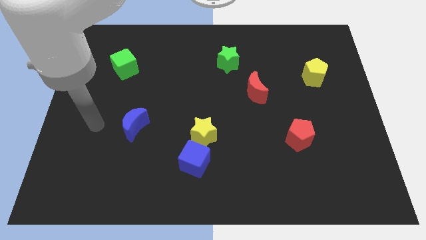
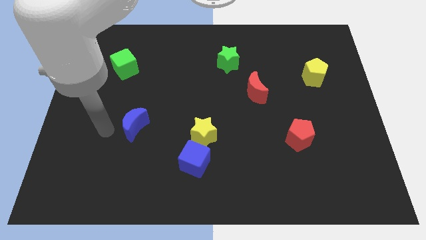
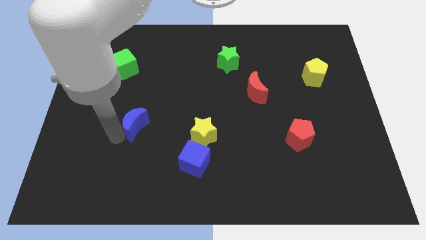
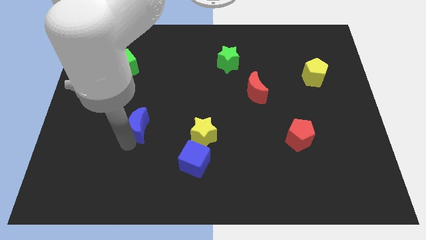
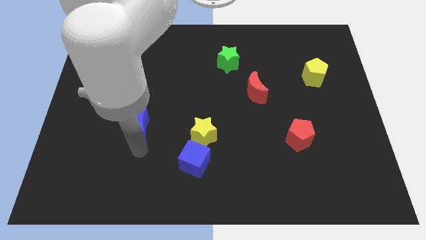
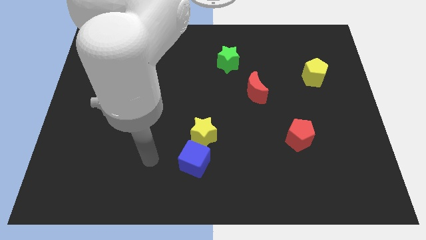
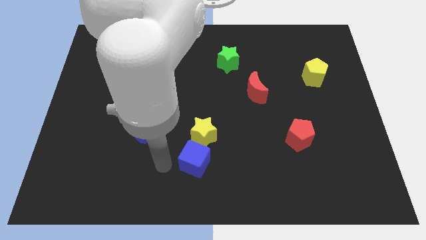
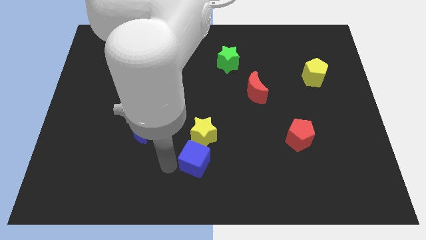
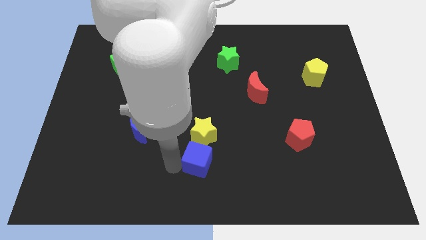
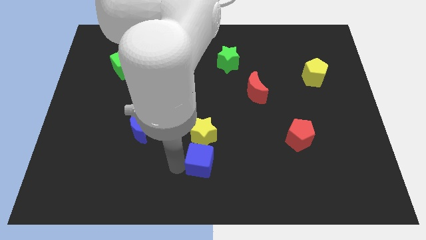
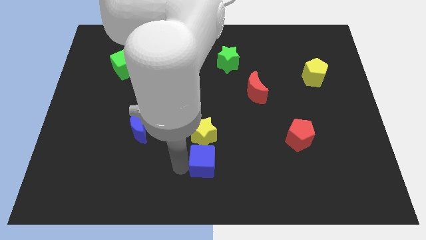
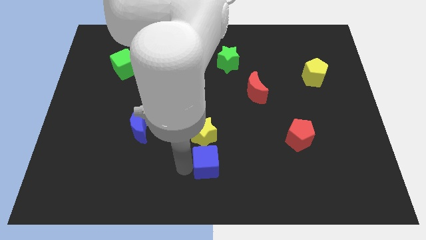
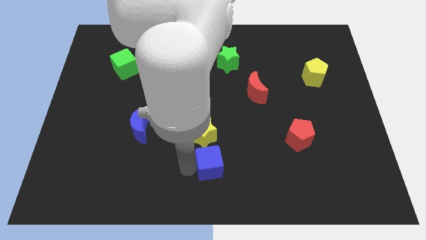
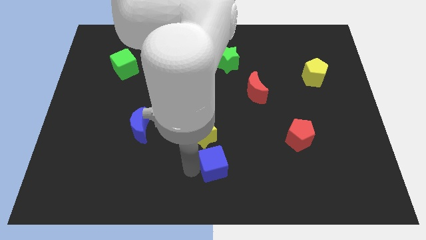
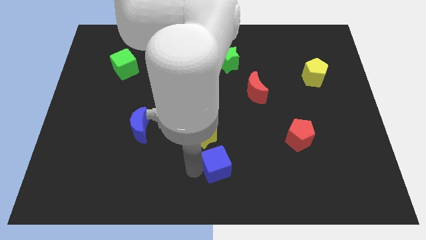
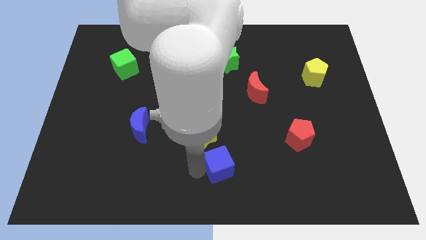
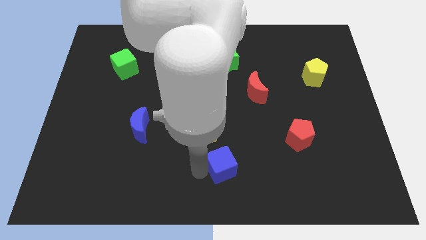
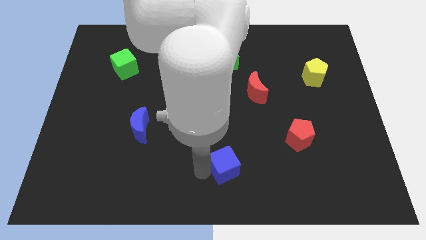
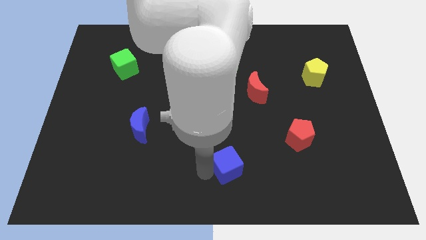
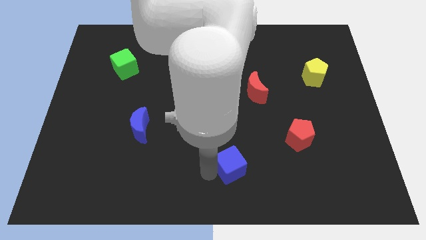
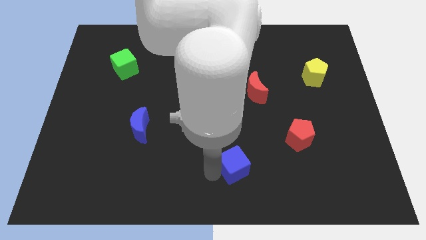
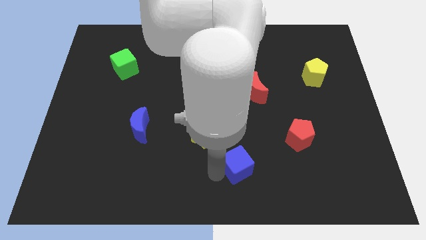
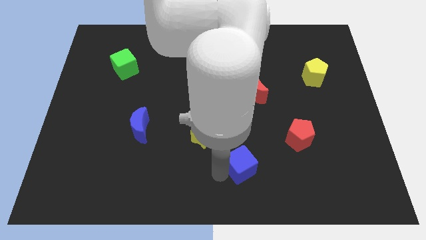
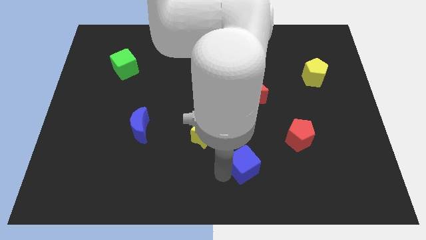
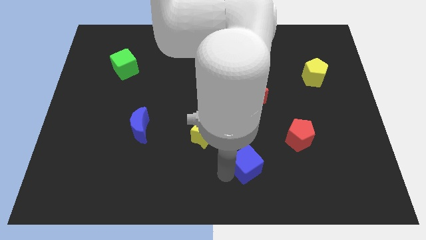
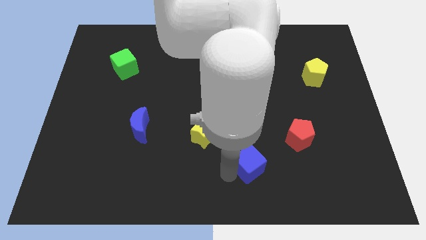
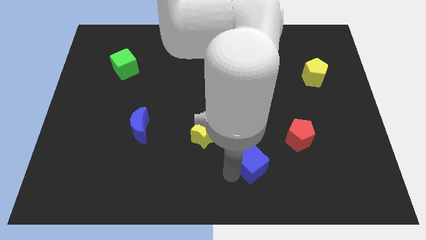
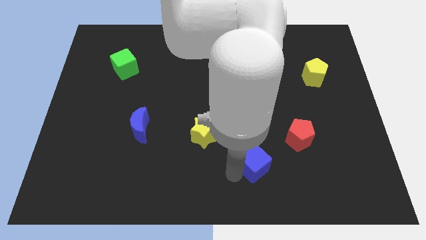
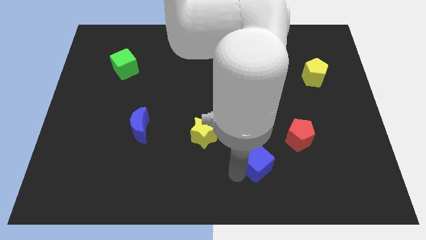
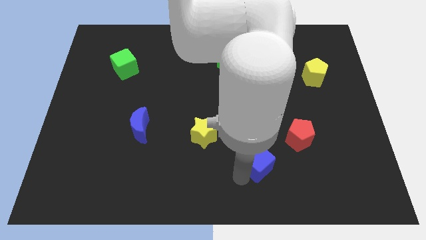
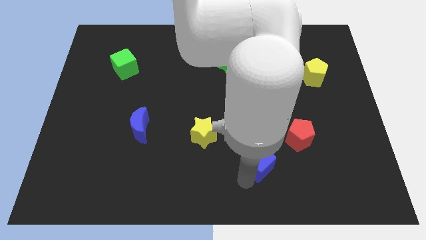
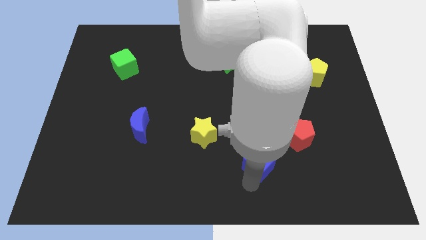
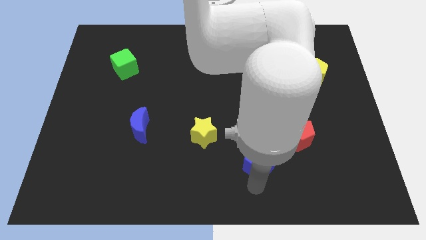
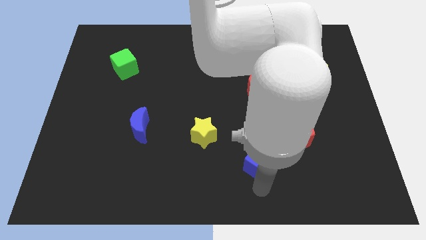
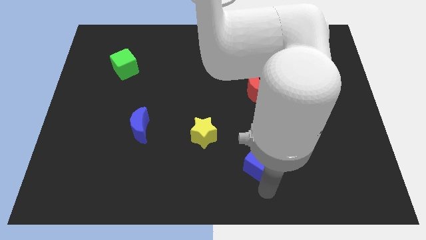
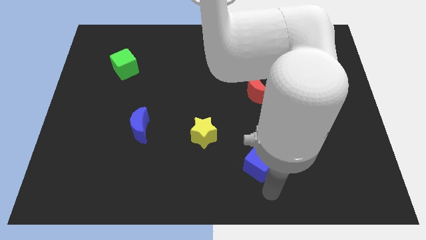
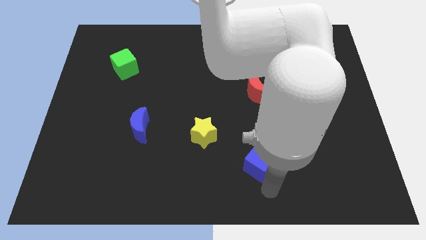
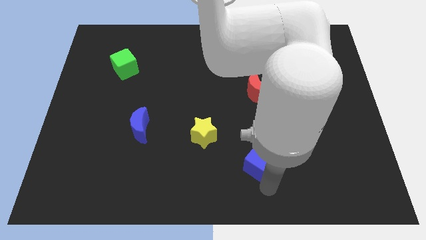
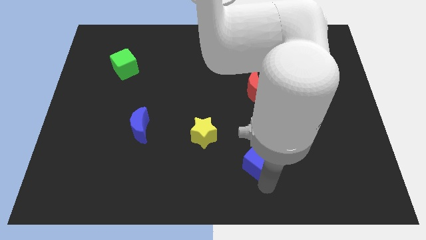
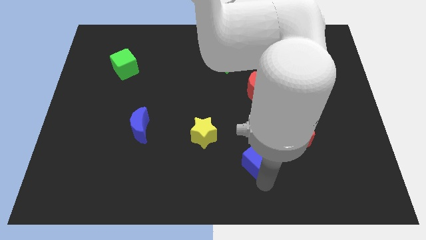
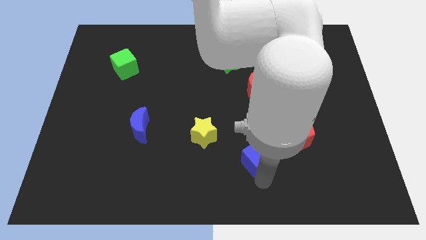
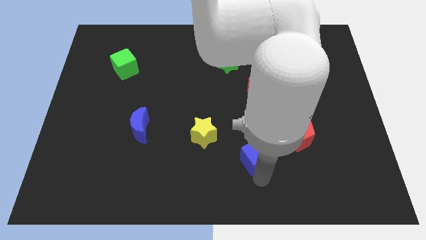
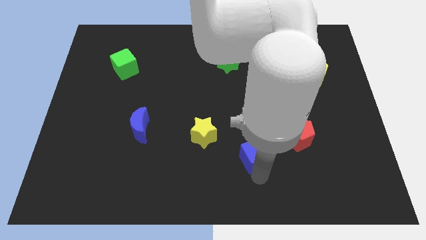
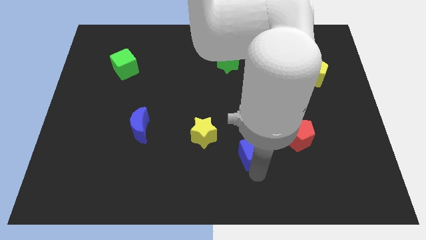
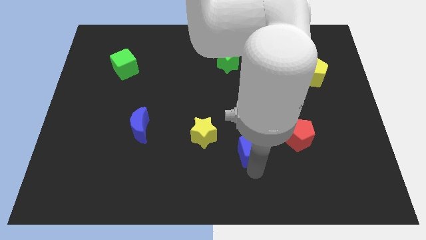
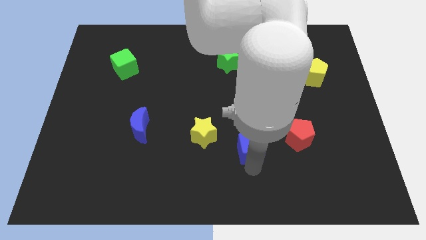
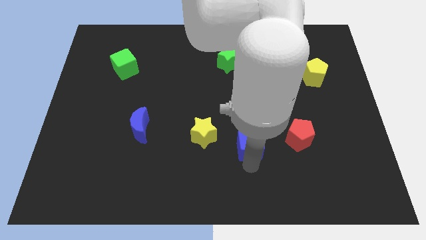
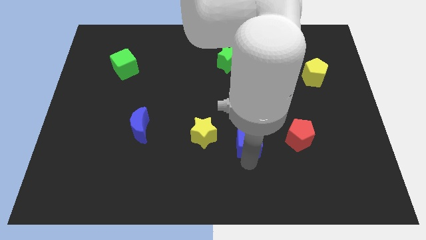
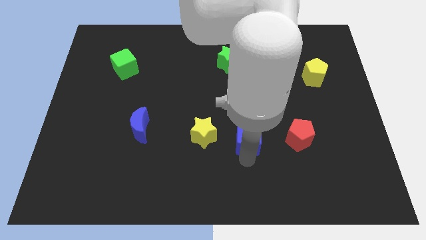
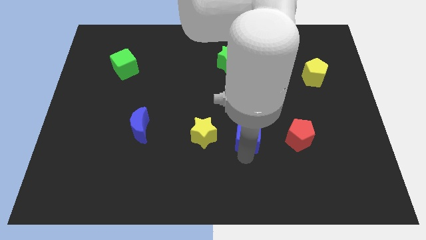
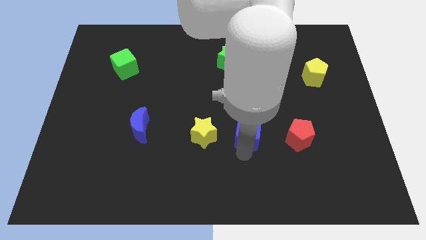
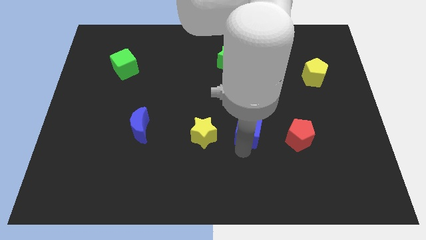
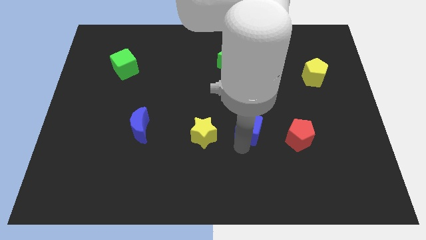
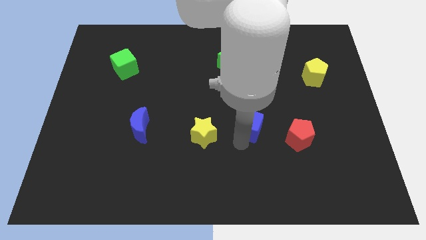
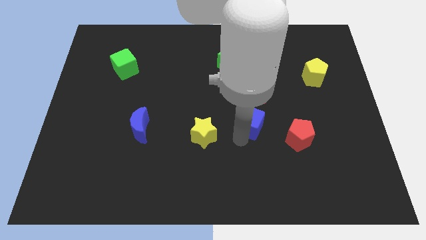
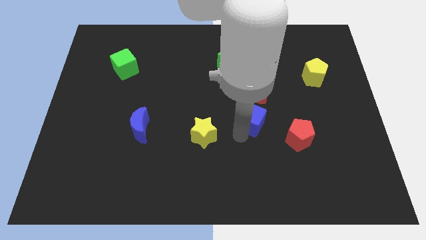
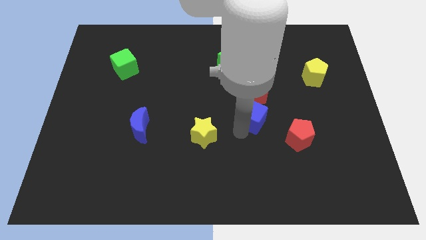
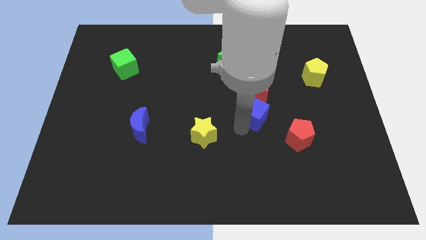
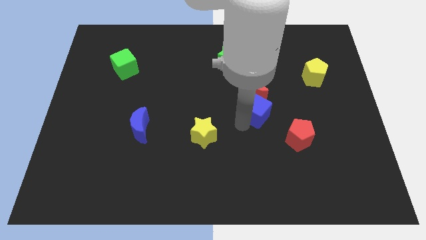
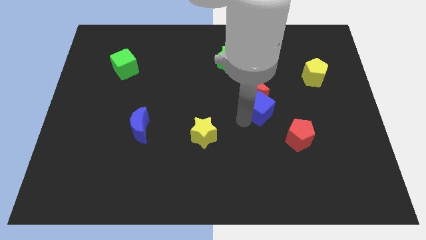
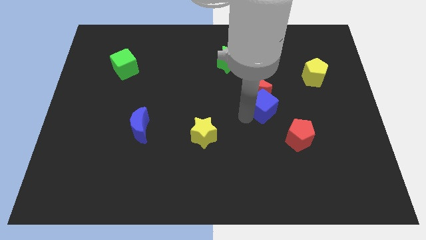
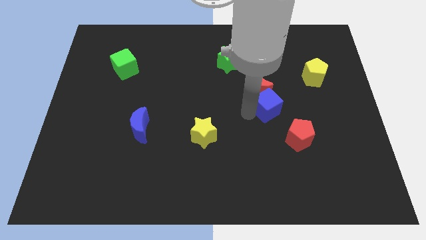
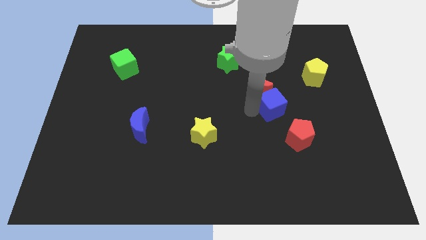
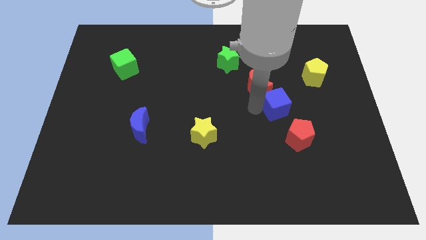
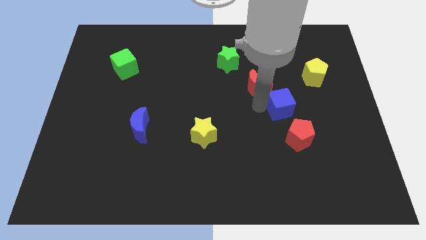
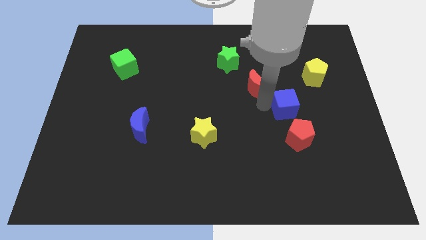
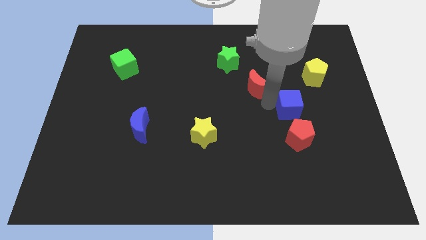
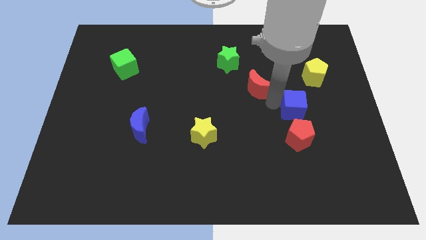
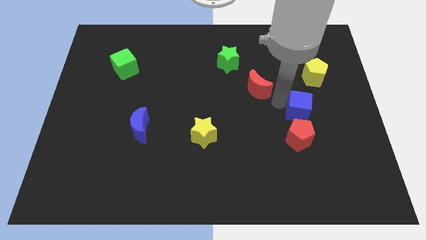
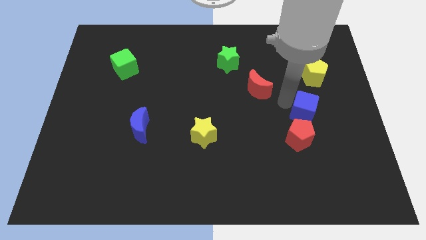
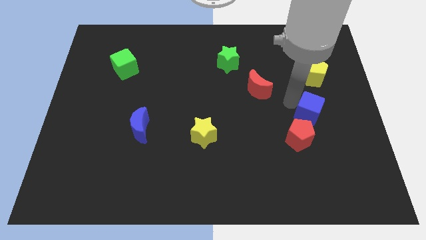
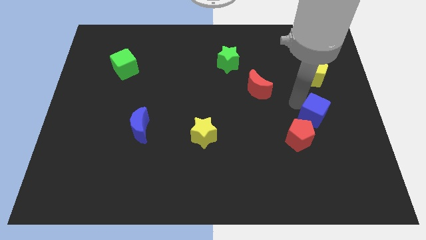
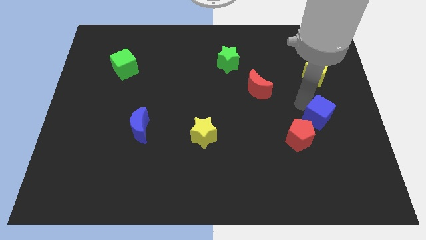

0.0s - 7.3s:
push the blue cube right

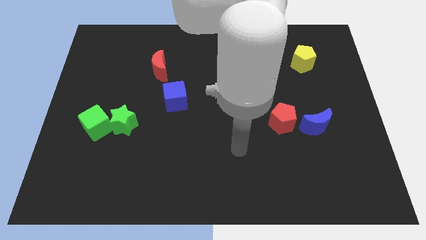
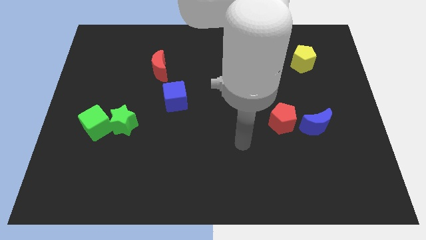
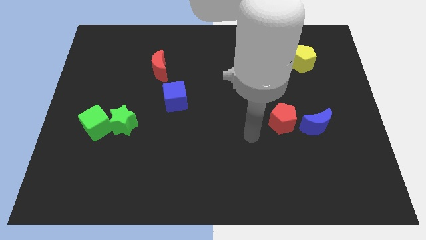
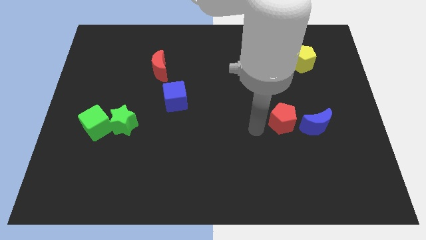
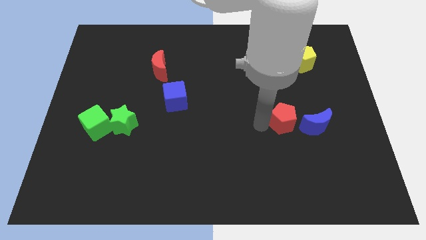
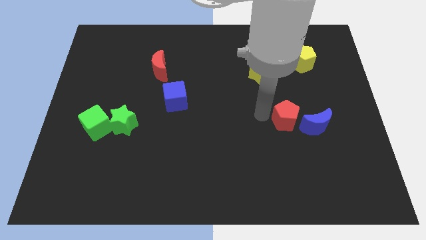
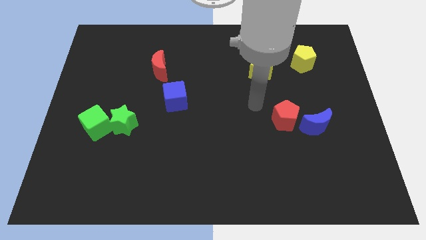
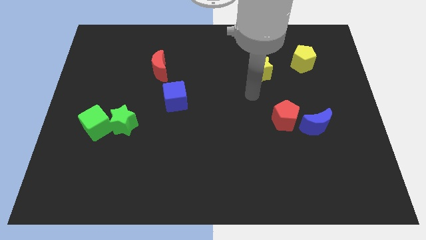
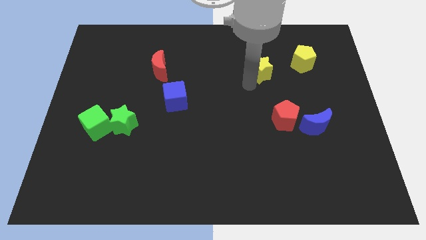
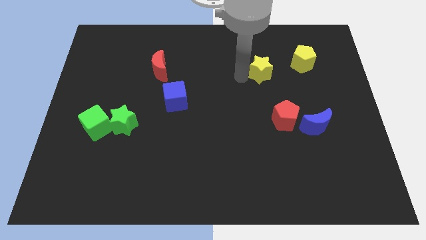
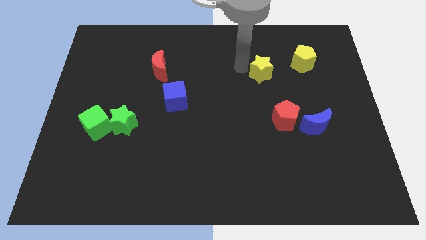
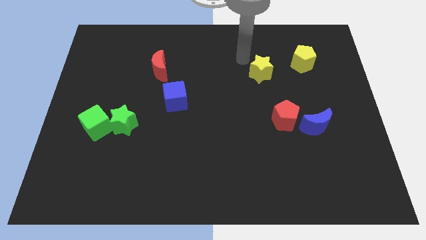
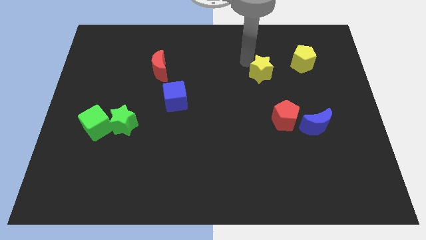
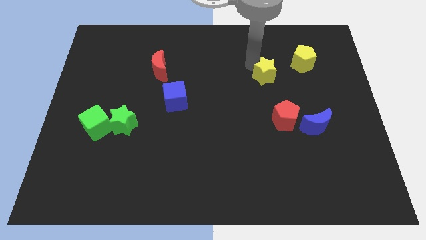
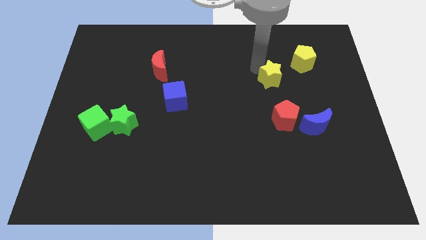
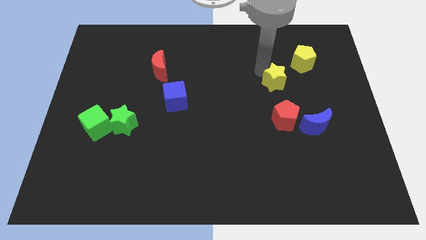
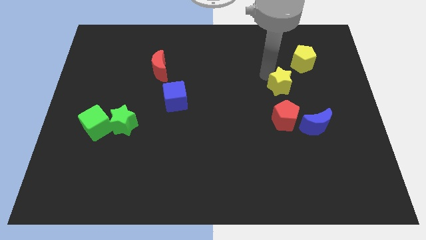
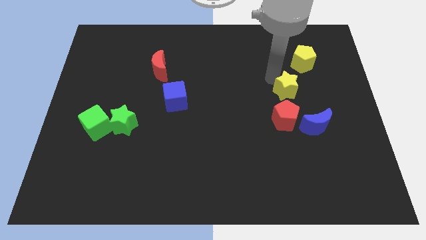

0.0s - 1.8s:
slightly push the yellow star diagonally down and to the right
